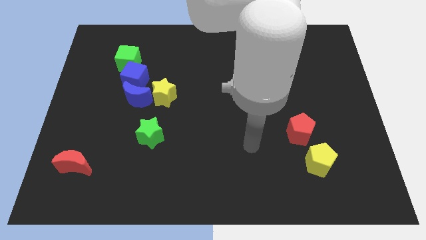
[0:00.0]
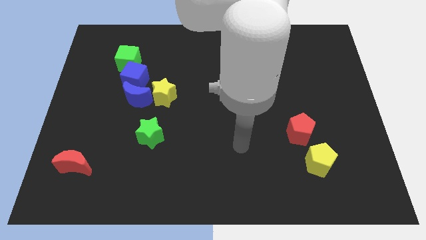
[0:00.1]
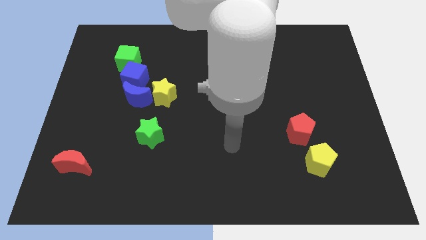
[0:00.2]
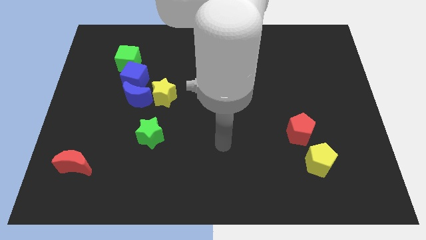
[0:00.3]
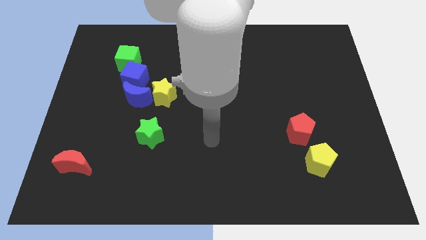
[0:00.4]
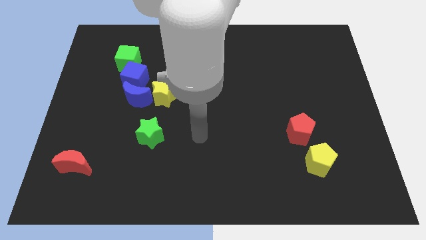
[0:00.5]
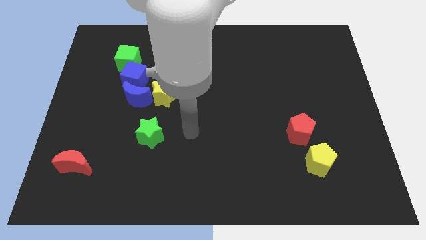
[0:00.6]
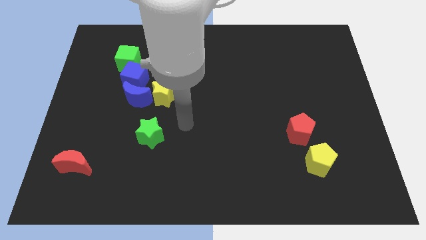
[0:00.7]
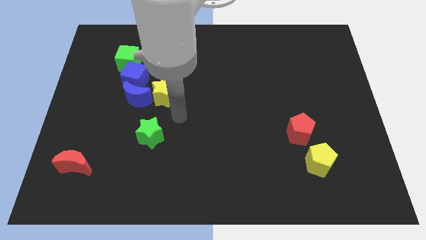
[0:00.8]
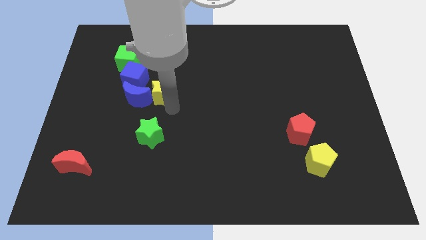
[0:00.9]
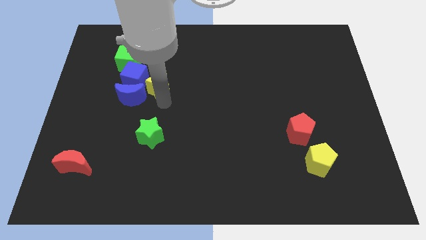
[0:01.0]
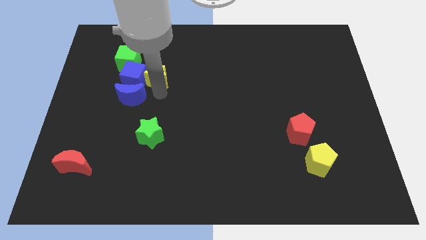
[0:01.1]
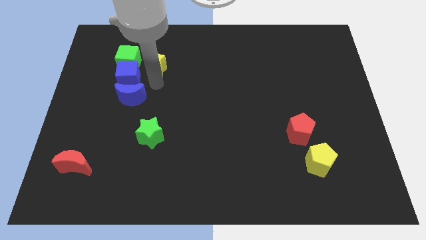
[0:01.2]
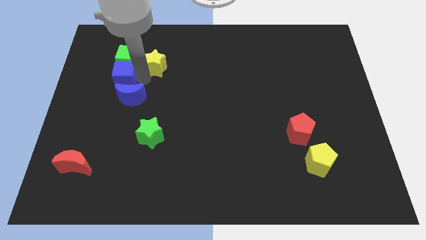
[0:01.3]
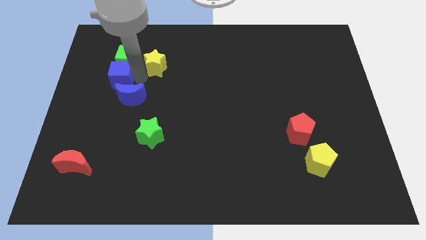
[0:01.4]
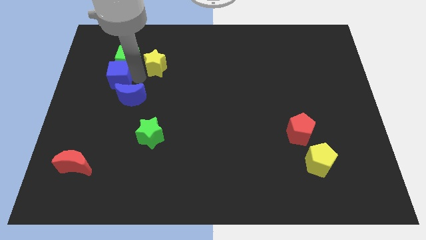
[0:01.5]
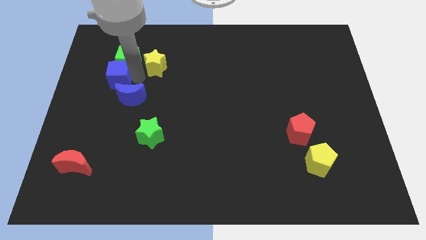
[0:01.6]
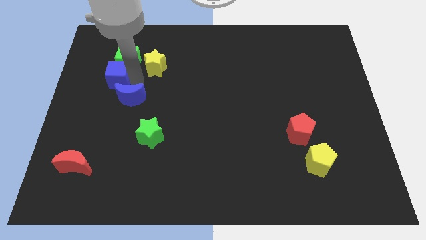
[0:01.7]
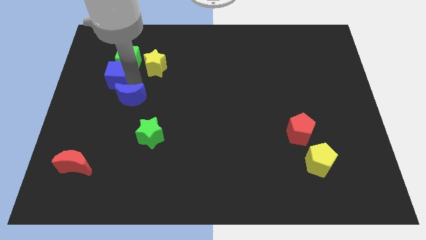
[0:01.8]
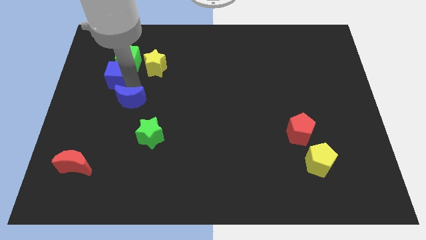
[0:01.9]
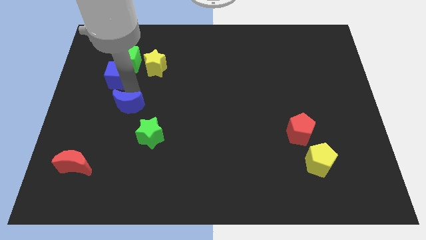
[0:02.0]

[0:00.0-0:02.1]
separate the blue moon from the blue cube and yellow star

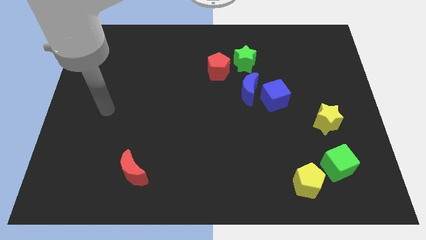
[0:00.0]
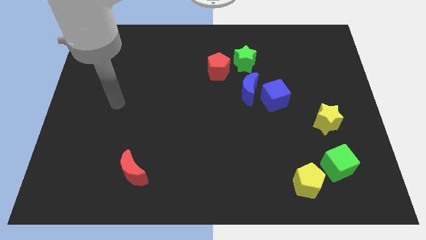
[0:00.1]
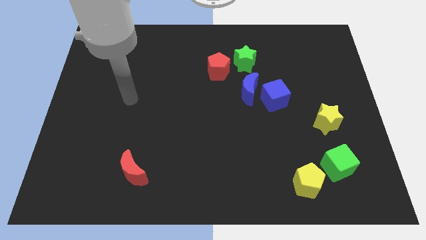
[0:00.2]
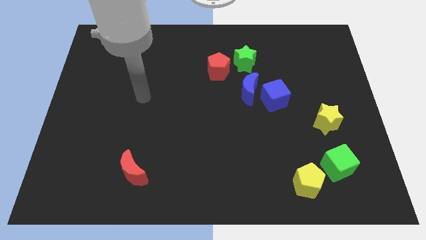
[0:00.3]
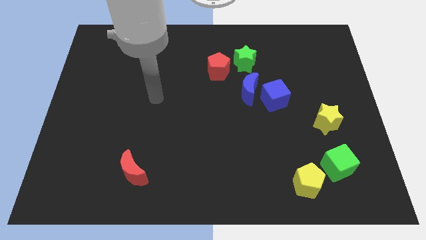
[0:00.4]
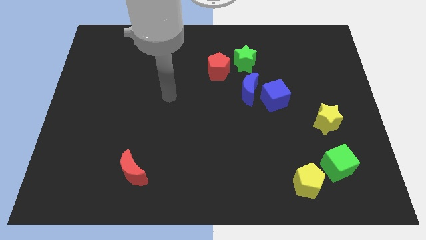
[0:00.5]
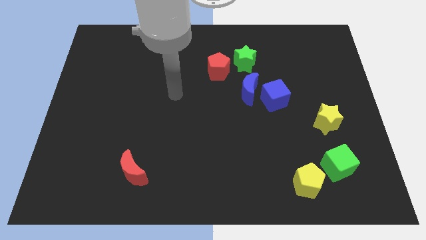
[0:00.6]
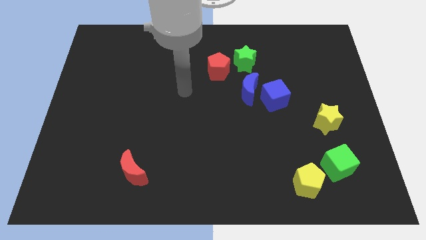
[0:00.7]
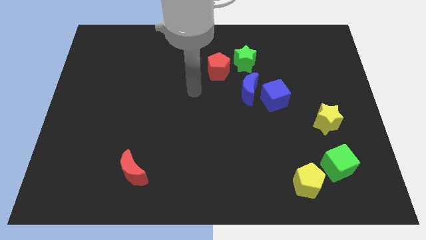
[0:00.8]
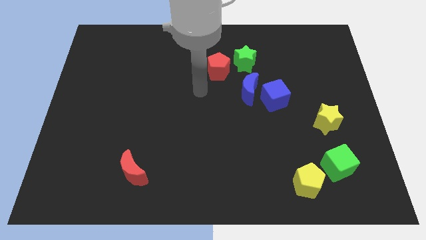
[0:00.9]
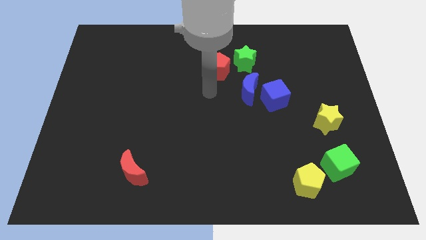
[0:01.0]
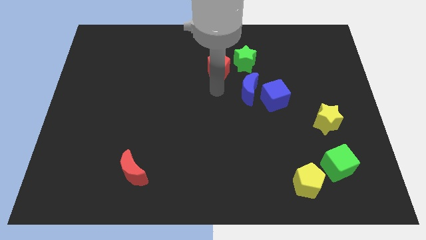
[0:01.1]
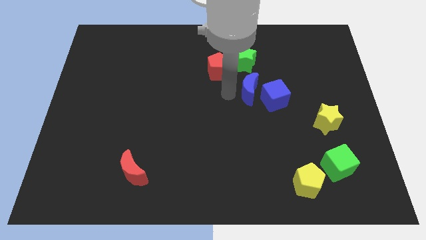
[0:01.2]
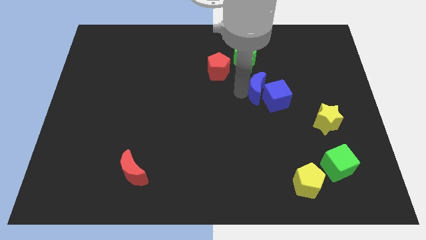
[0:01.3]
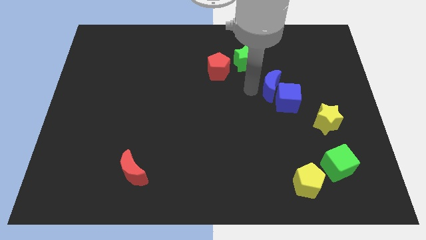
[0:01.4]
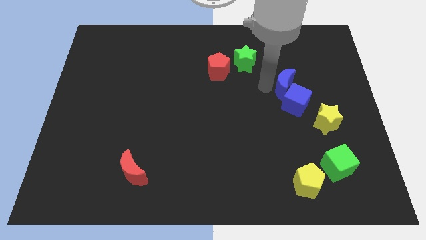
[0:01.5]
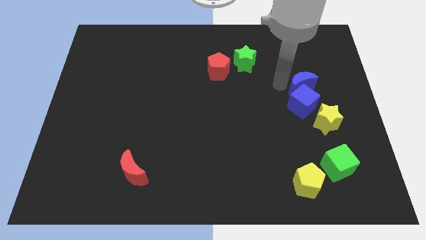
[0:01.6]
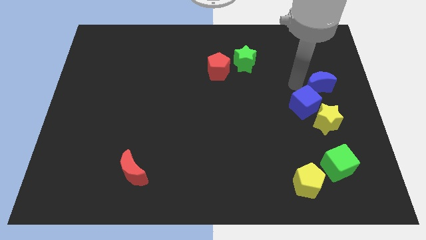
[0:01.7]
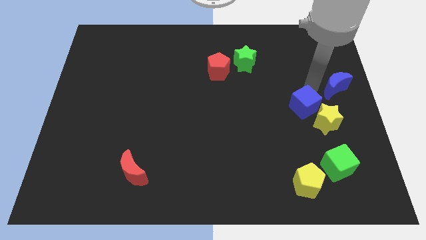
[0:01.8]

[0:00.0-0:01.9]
pull the blue cube apart from the blue moon

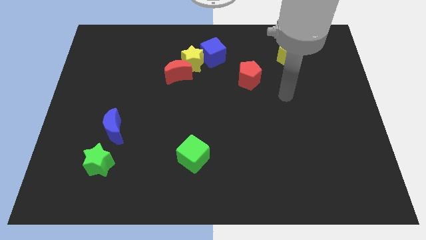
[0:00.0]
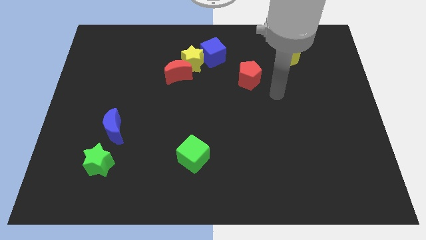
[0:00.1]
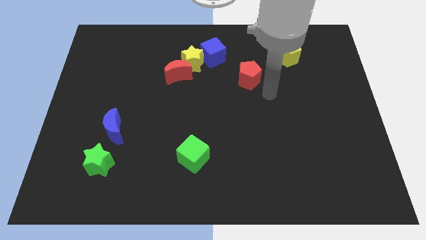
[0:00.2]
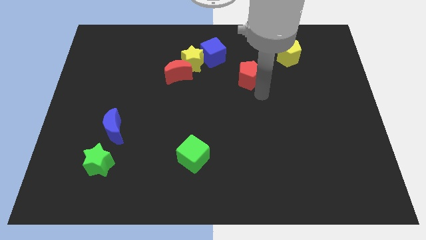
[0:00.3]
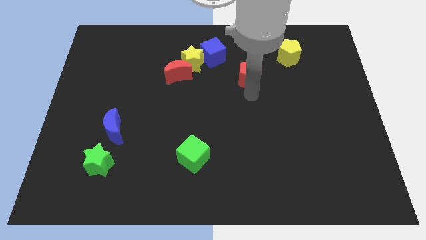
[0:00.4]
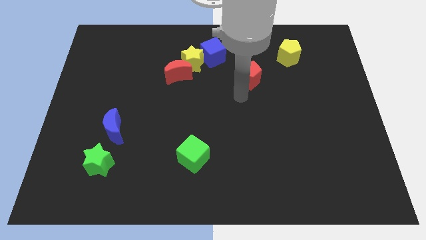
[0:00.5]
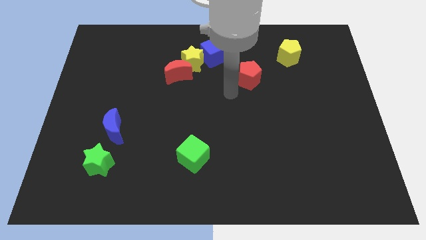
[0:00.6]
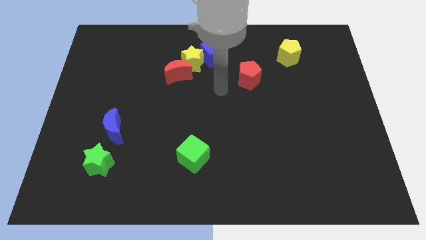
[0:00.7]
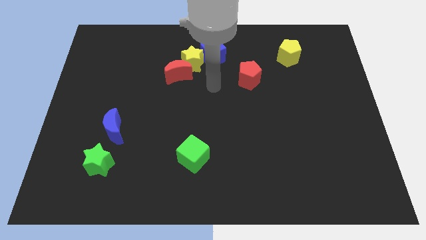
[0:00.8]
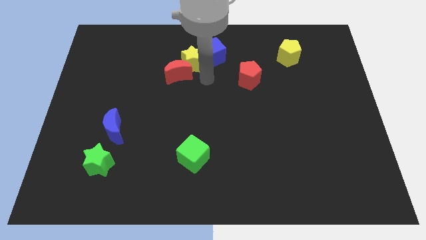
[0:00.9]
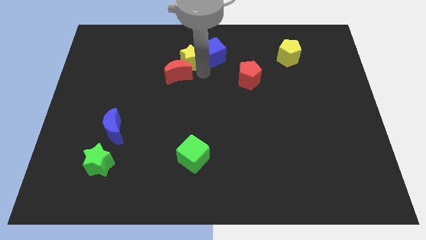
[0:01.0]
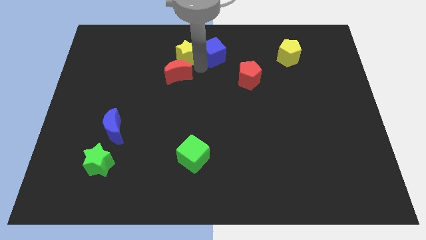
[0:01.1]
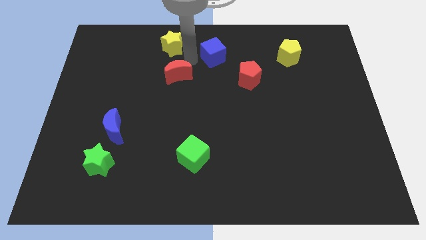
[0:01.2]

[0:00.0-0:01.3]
separate the red moon from the yellow star

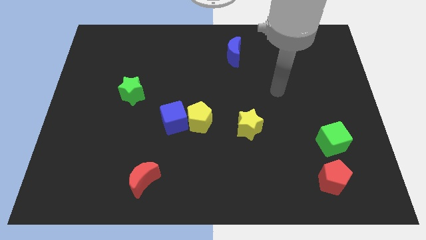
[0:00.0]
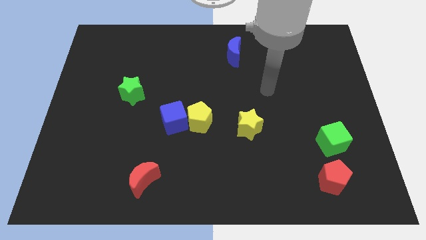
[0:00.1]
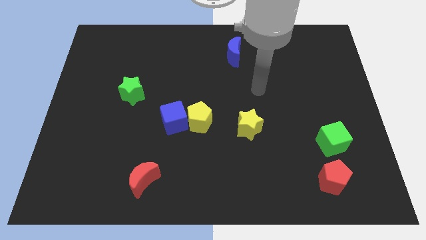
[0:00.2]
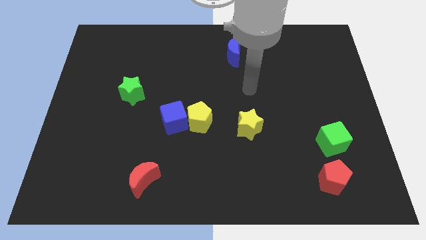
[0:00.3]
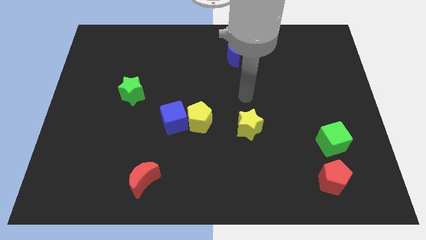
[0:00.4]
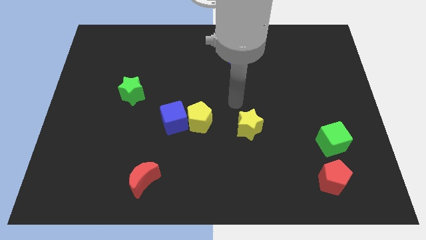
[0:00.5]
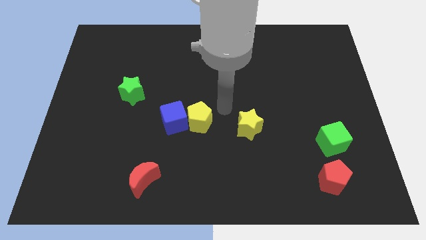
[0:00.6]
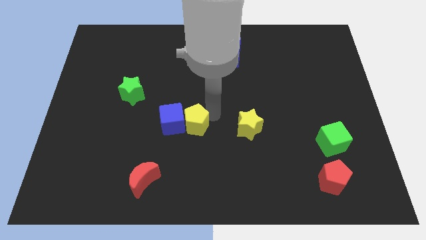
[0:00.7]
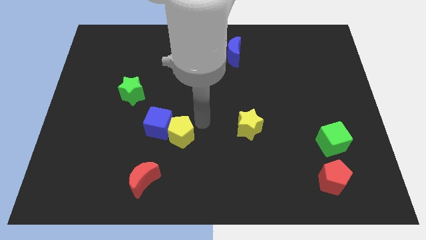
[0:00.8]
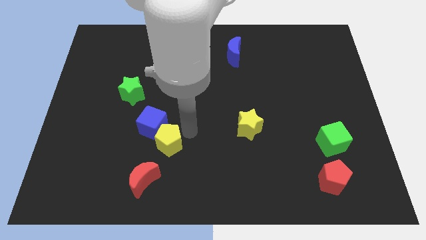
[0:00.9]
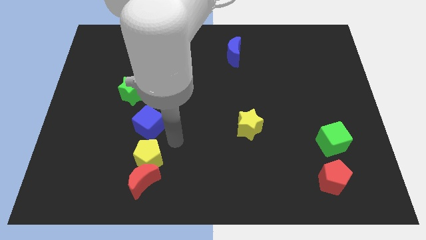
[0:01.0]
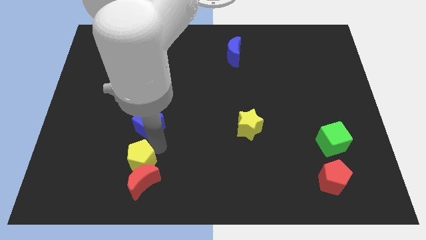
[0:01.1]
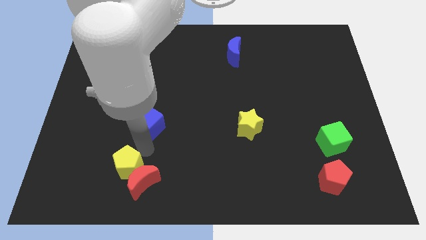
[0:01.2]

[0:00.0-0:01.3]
pull the blue cube apart from the yellow pentagon

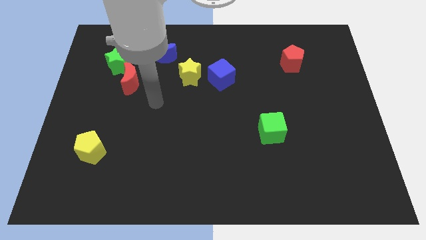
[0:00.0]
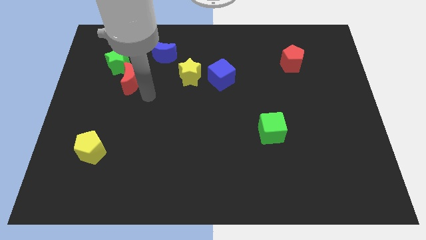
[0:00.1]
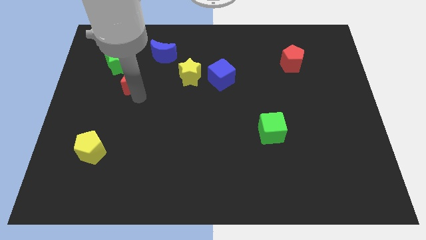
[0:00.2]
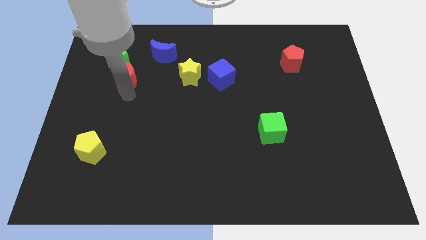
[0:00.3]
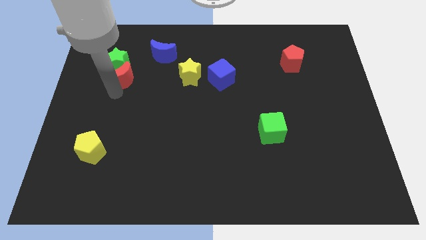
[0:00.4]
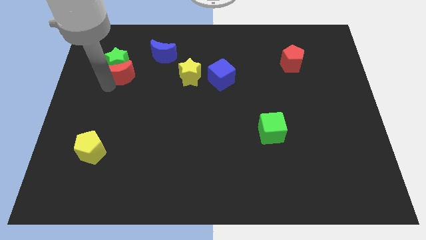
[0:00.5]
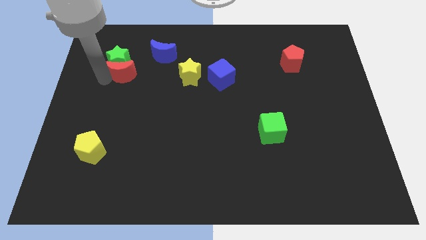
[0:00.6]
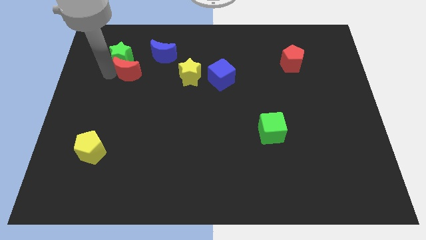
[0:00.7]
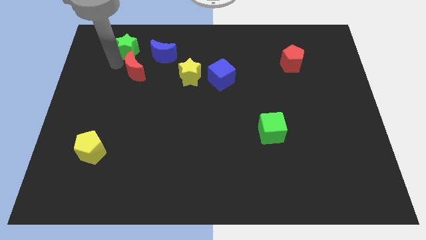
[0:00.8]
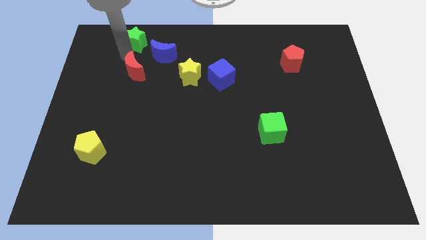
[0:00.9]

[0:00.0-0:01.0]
separate the red moon from the green star

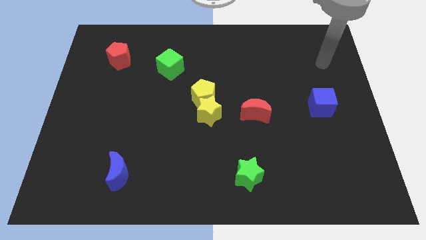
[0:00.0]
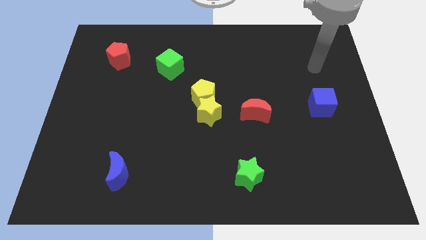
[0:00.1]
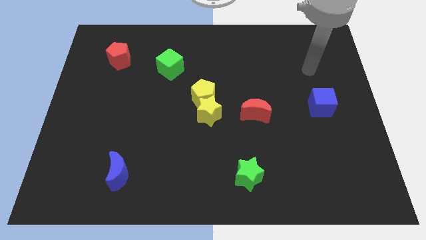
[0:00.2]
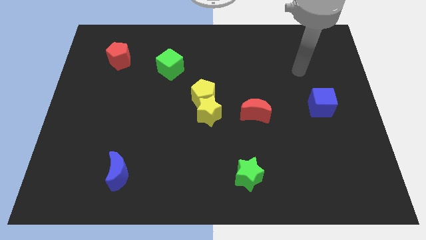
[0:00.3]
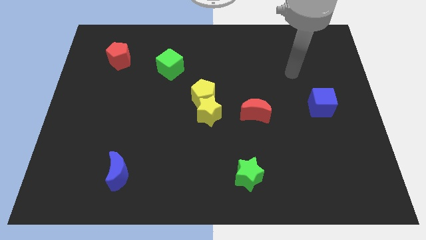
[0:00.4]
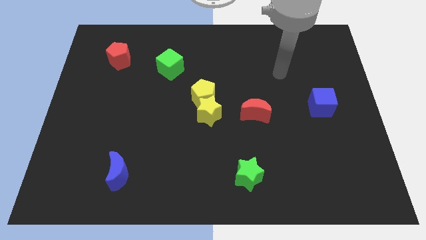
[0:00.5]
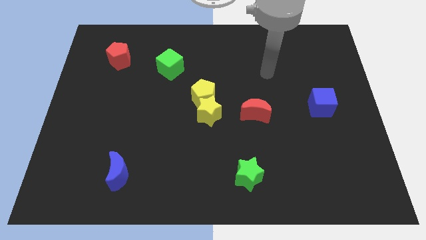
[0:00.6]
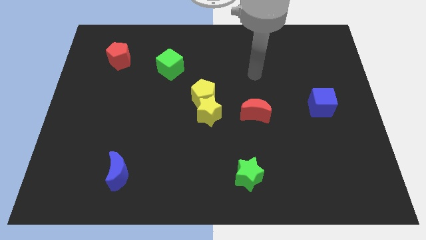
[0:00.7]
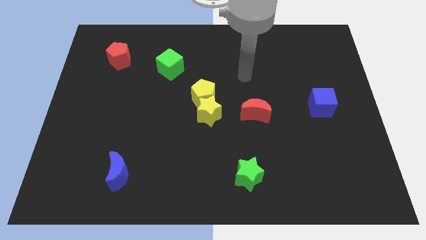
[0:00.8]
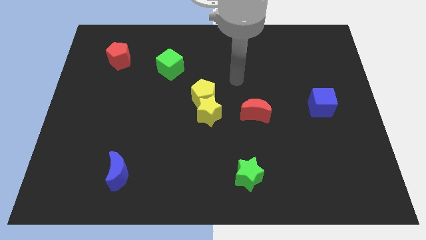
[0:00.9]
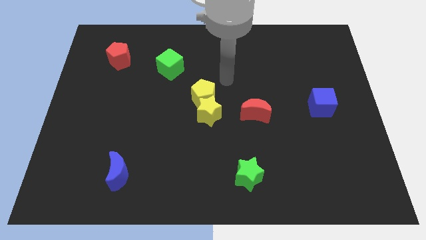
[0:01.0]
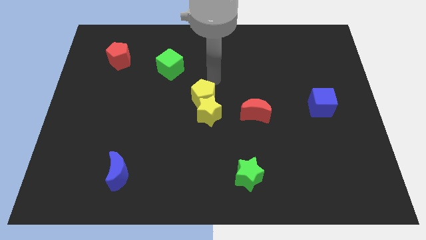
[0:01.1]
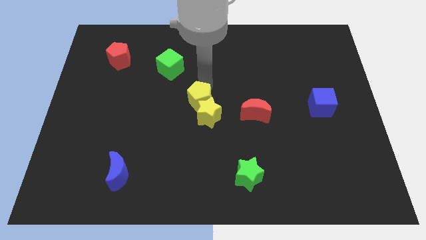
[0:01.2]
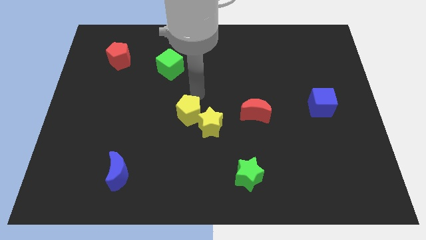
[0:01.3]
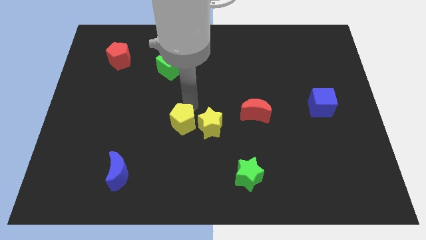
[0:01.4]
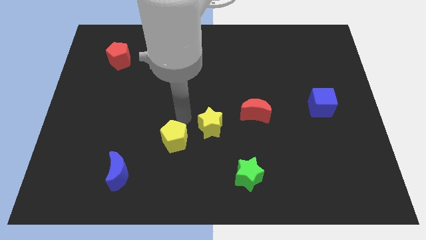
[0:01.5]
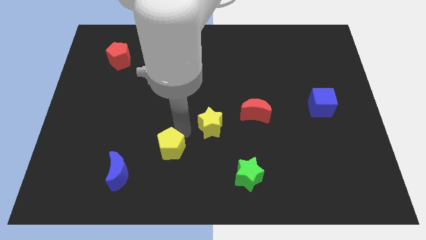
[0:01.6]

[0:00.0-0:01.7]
pull the yellow star apart from the yellow pentagon
